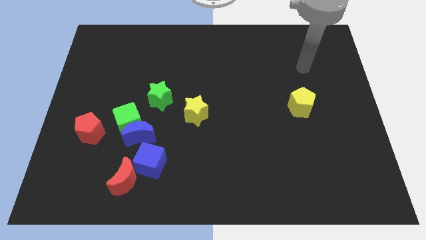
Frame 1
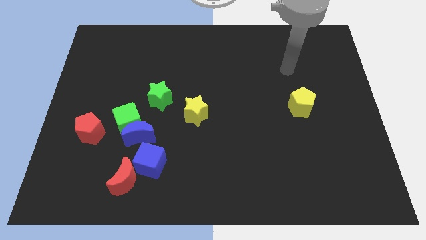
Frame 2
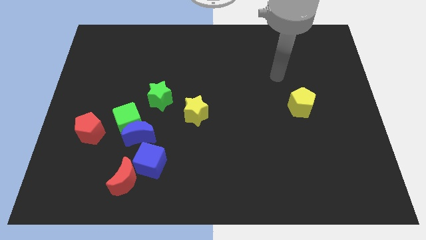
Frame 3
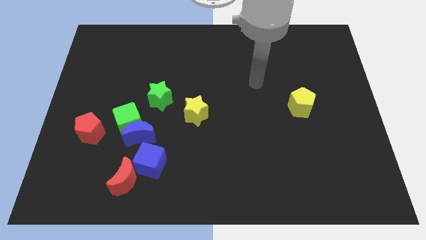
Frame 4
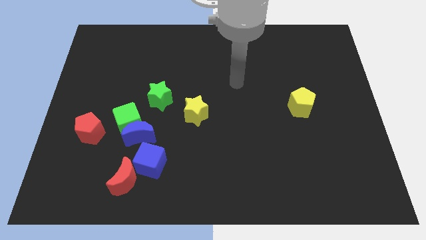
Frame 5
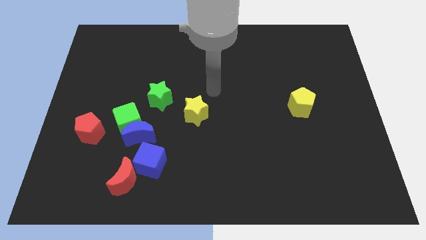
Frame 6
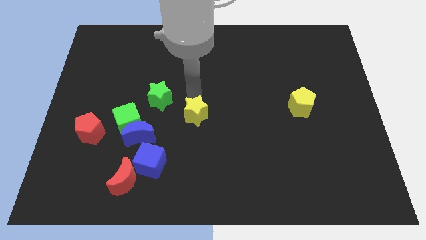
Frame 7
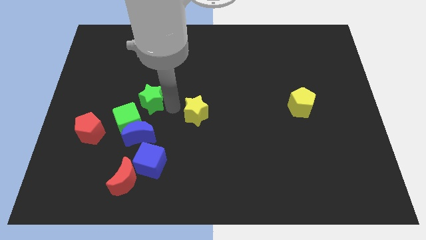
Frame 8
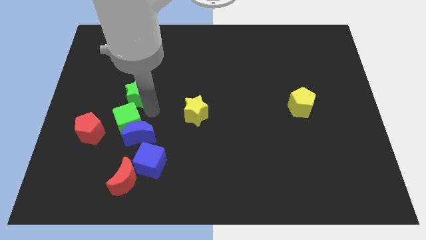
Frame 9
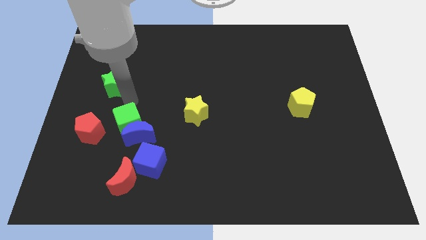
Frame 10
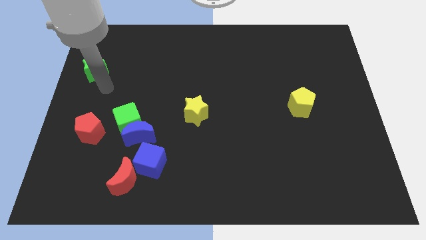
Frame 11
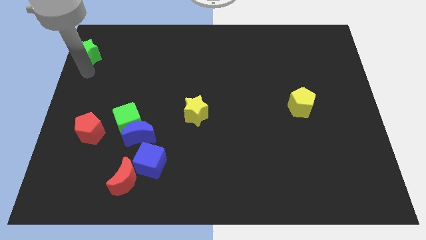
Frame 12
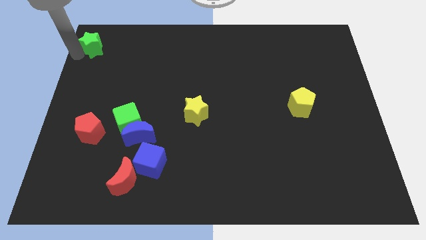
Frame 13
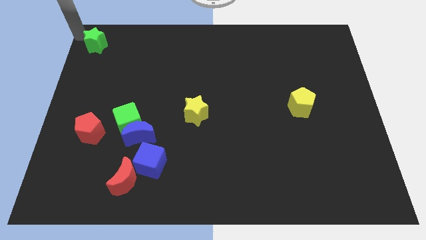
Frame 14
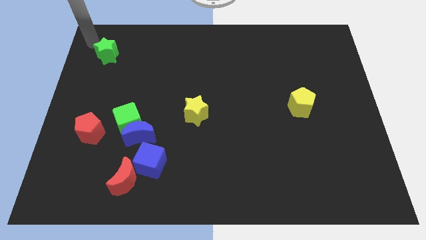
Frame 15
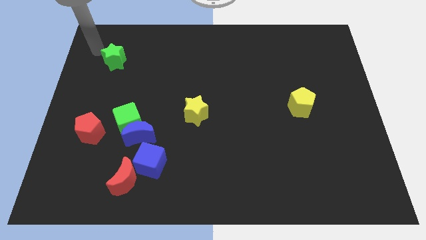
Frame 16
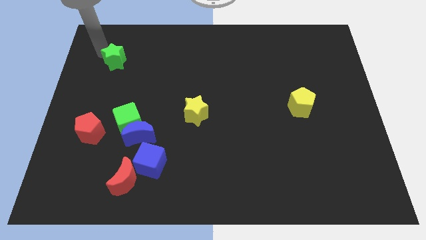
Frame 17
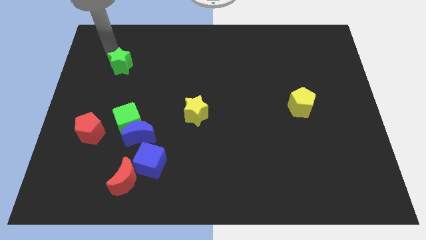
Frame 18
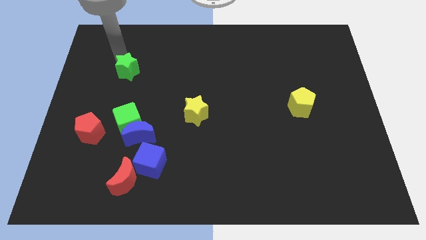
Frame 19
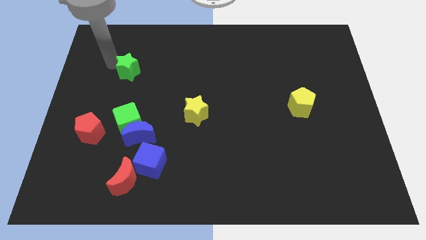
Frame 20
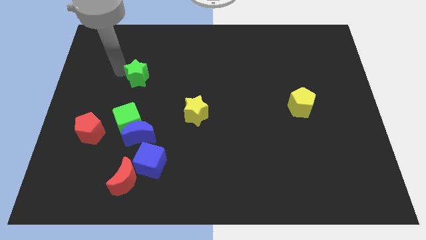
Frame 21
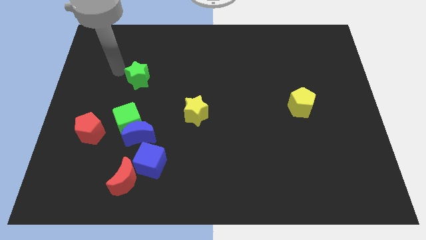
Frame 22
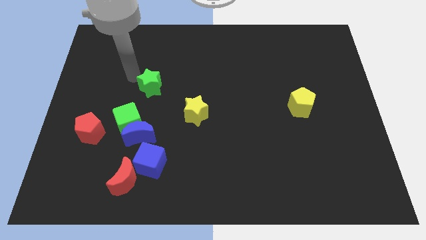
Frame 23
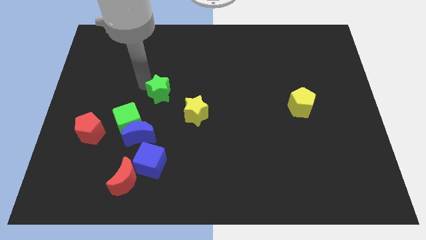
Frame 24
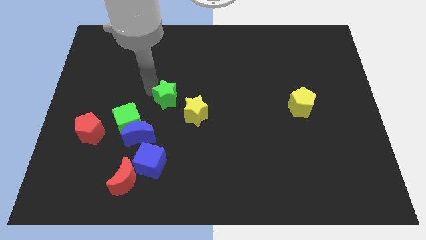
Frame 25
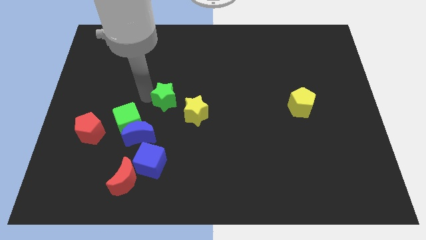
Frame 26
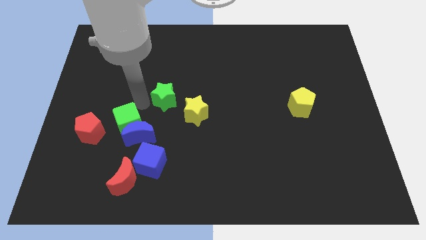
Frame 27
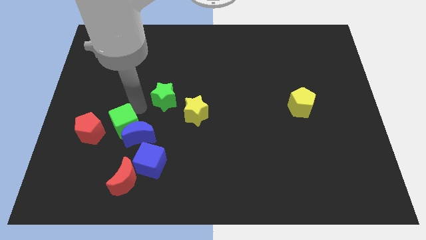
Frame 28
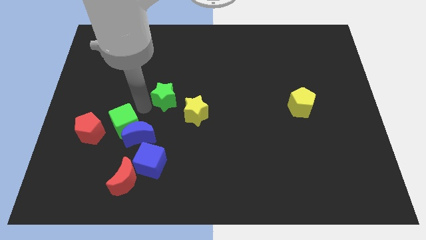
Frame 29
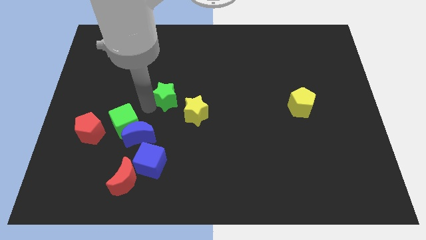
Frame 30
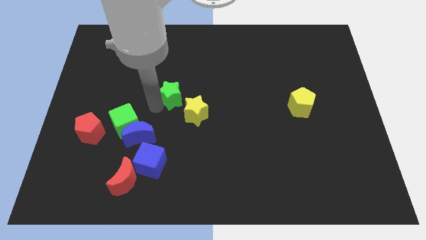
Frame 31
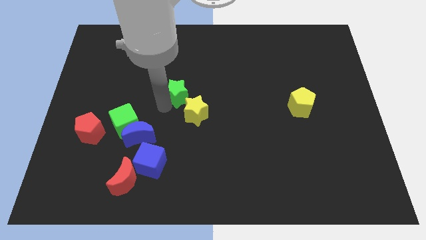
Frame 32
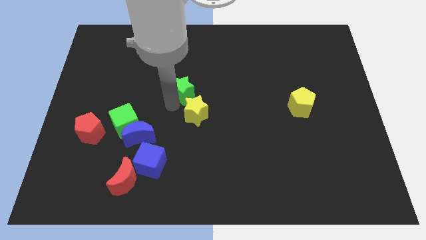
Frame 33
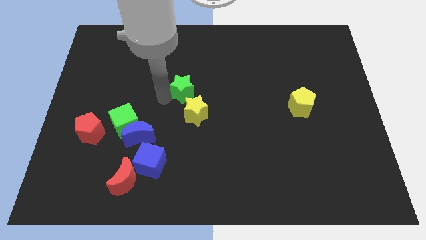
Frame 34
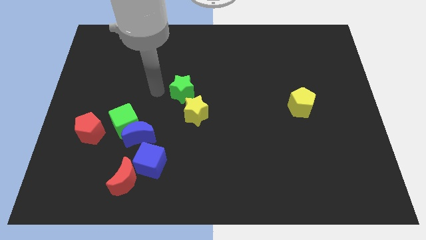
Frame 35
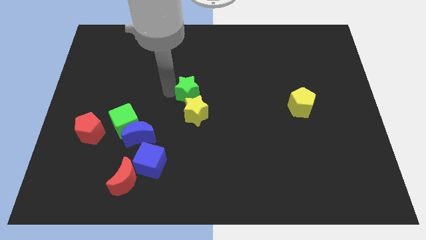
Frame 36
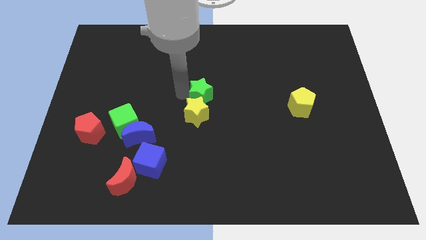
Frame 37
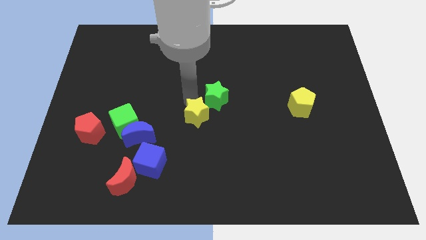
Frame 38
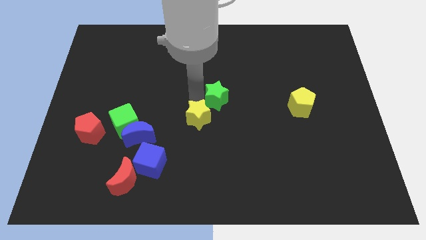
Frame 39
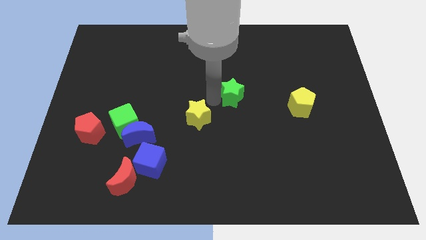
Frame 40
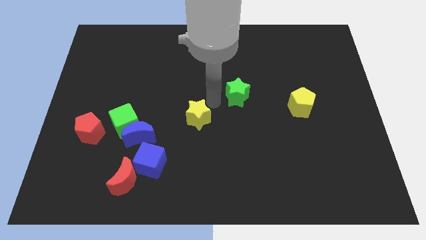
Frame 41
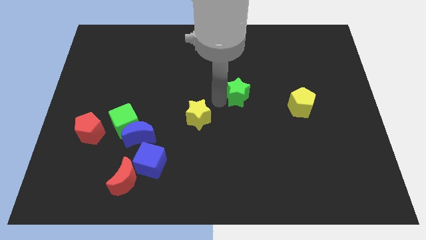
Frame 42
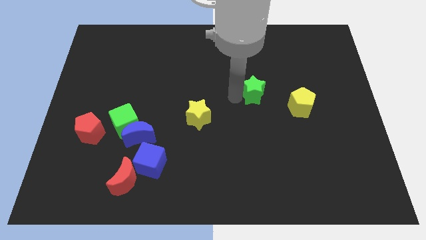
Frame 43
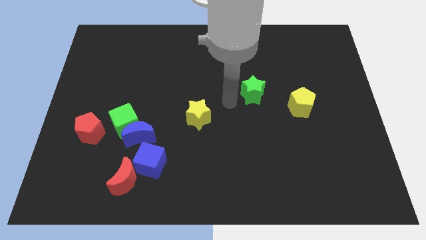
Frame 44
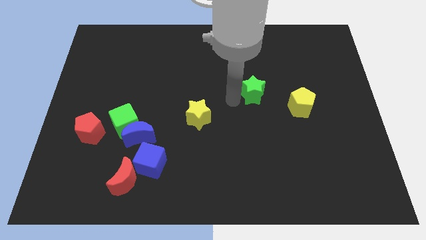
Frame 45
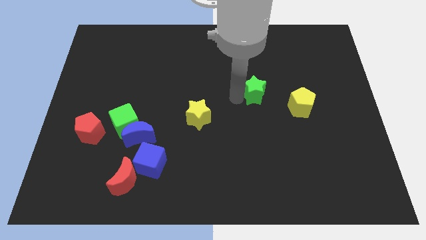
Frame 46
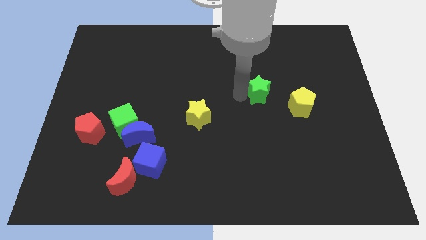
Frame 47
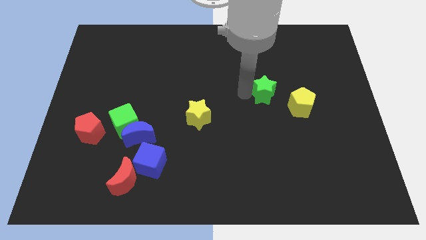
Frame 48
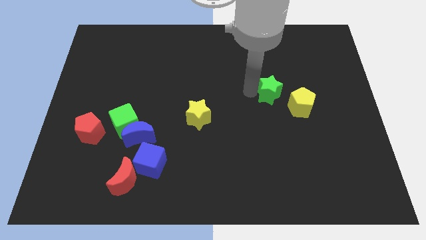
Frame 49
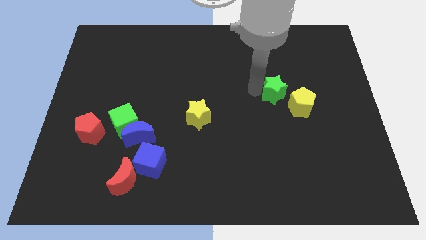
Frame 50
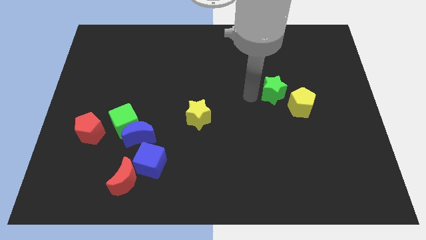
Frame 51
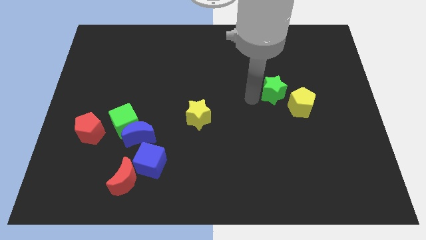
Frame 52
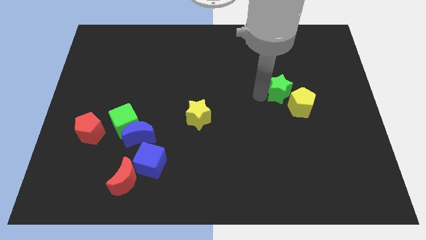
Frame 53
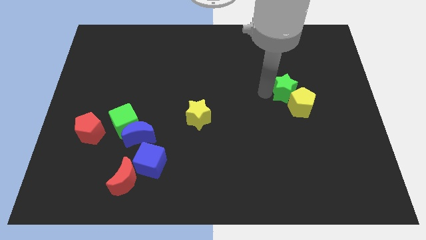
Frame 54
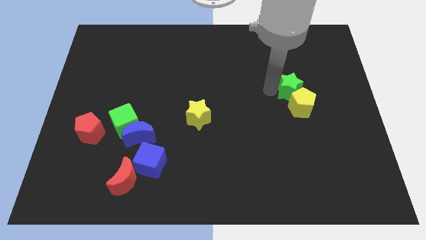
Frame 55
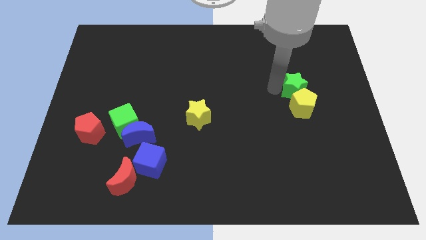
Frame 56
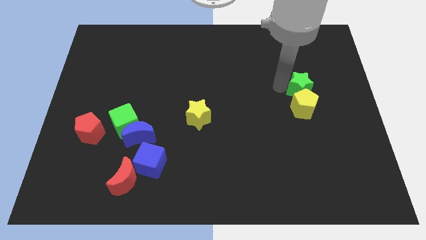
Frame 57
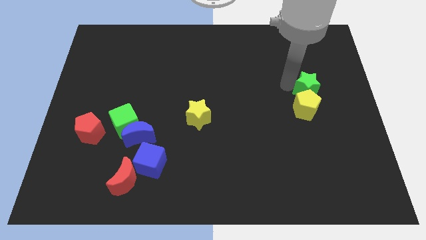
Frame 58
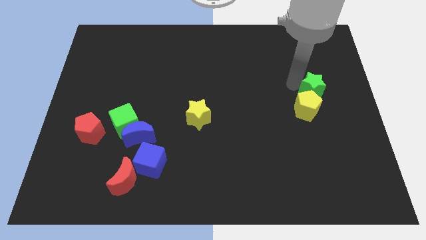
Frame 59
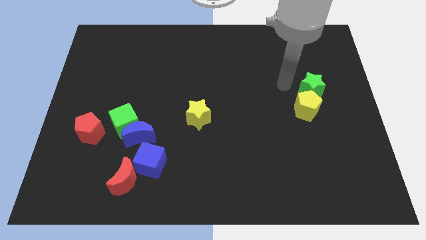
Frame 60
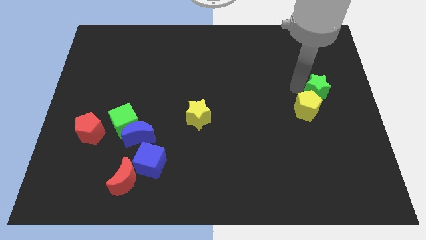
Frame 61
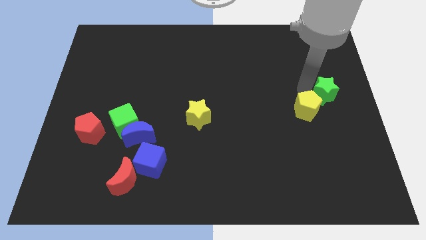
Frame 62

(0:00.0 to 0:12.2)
slide the green star to the right side of the board

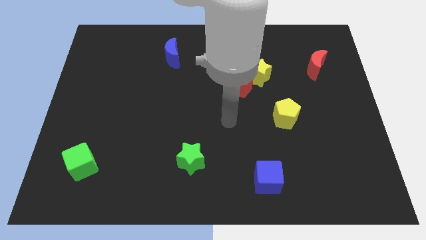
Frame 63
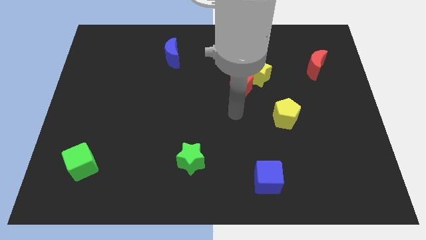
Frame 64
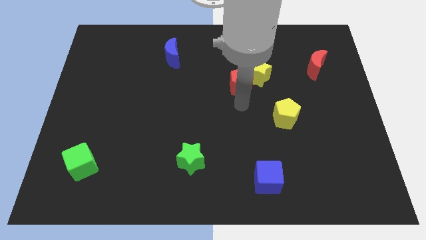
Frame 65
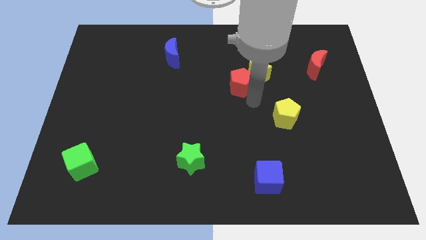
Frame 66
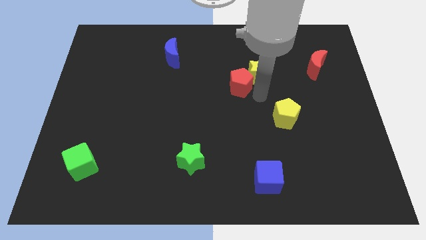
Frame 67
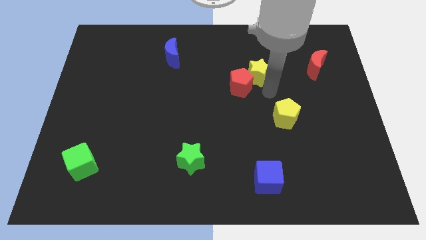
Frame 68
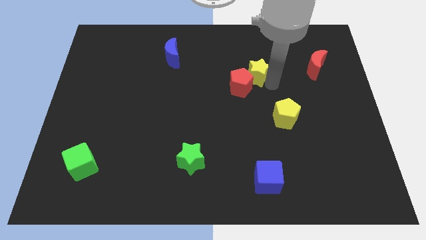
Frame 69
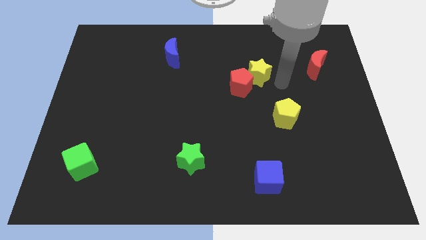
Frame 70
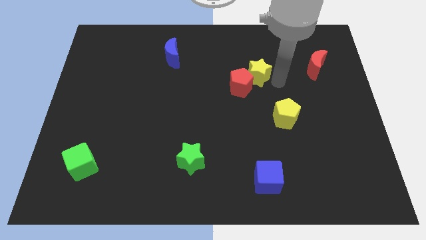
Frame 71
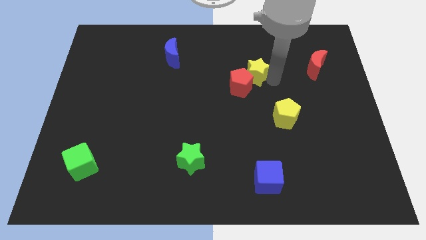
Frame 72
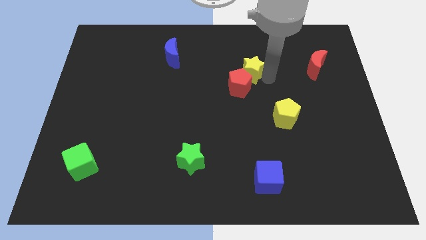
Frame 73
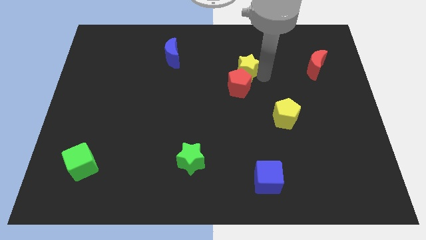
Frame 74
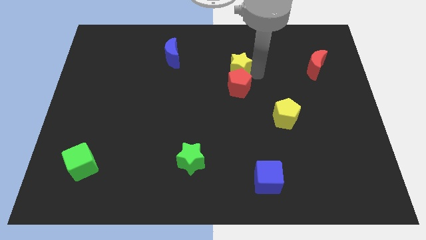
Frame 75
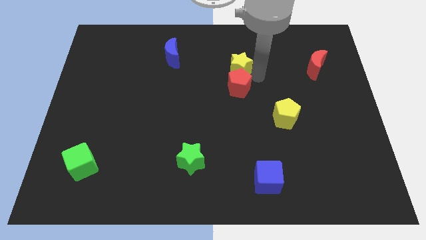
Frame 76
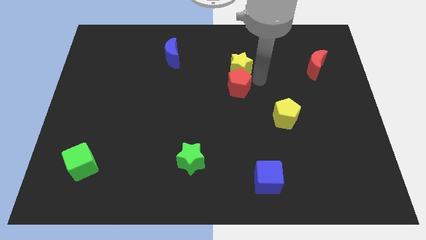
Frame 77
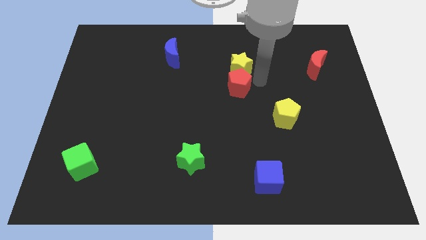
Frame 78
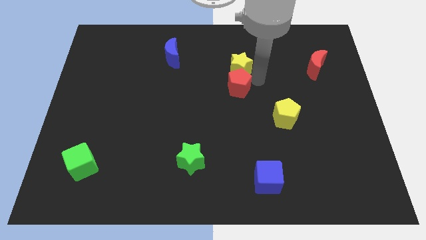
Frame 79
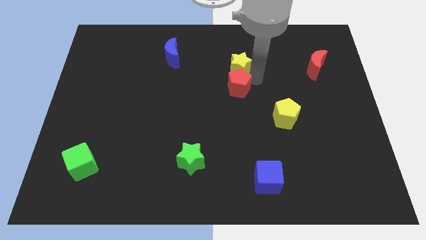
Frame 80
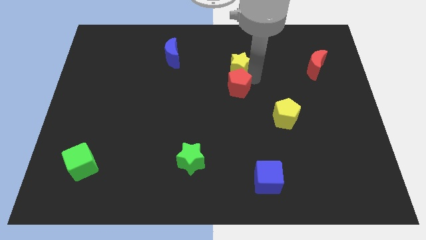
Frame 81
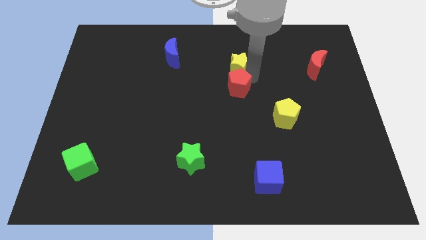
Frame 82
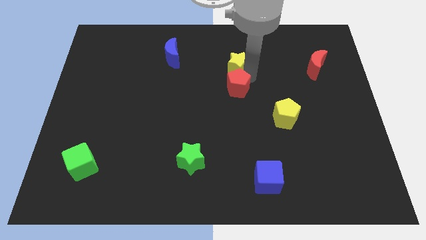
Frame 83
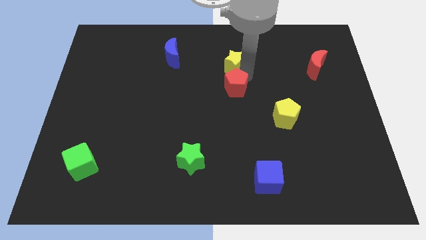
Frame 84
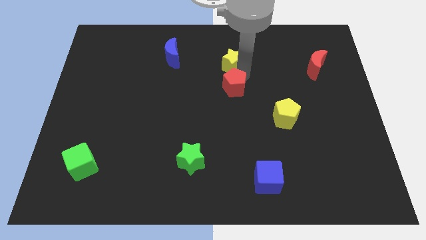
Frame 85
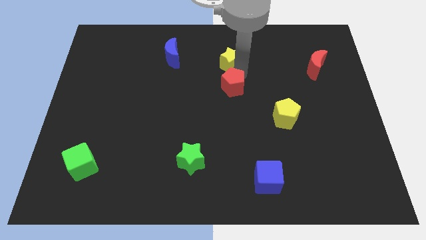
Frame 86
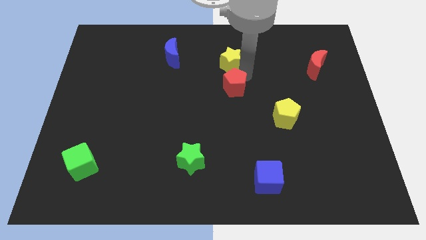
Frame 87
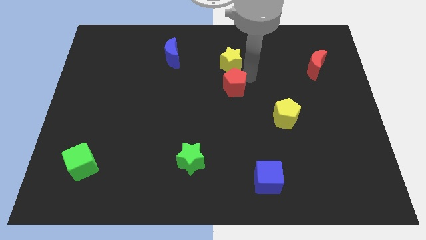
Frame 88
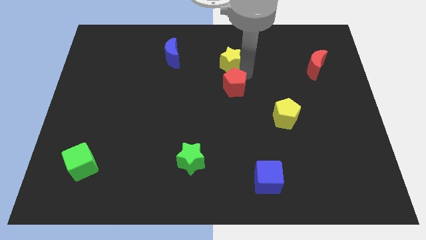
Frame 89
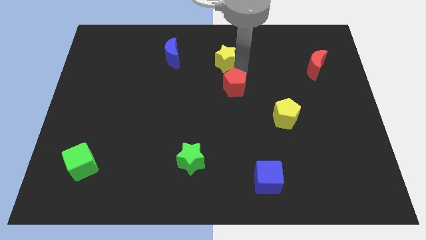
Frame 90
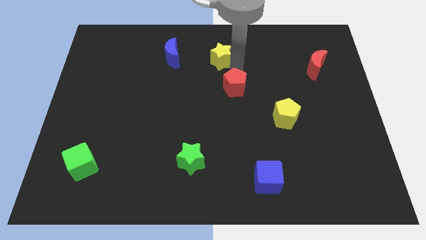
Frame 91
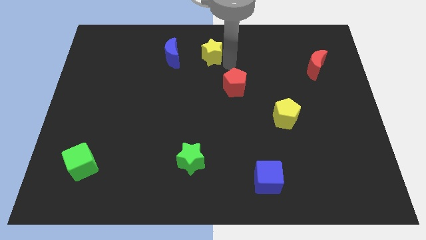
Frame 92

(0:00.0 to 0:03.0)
move the yellow star to the top side
